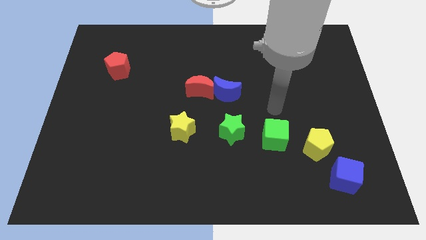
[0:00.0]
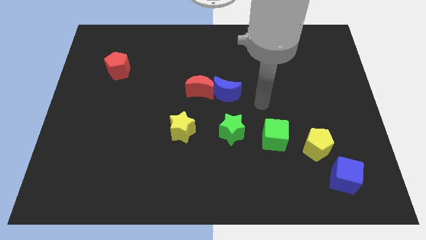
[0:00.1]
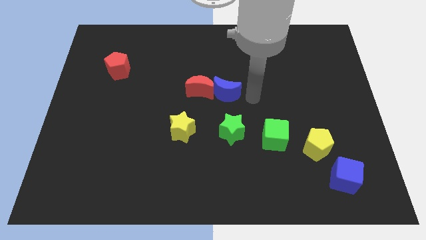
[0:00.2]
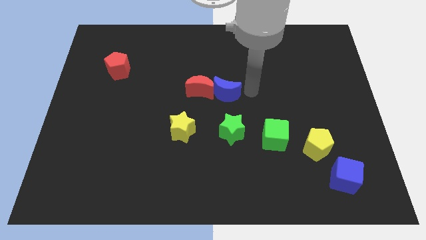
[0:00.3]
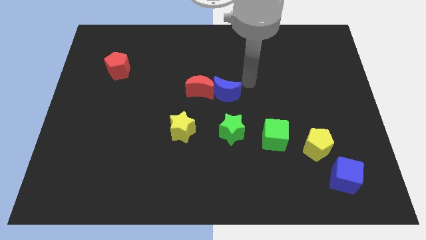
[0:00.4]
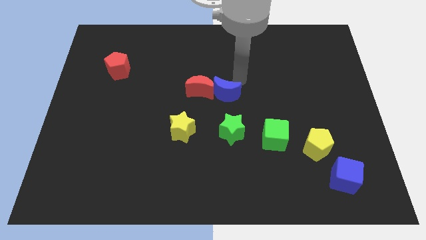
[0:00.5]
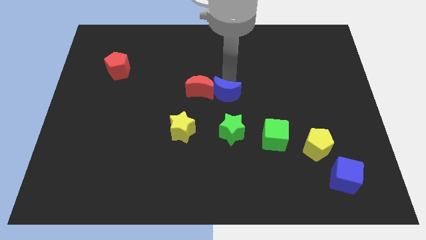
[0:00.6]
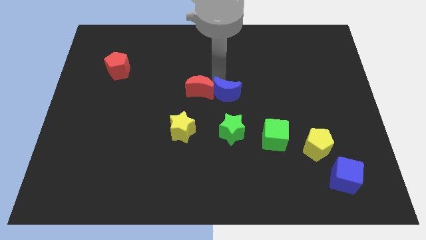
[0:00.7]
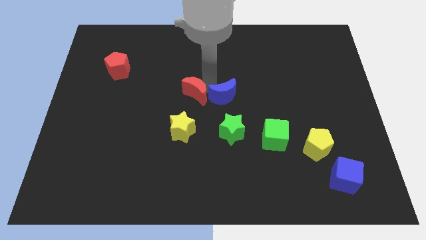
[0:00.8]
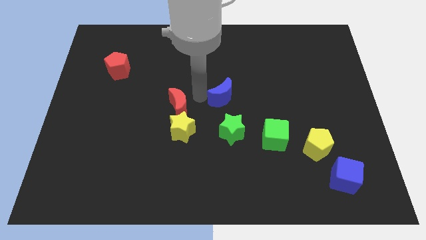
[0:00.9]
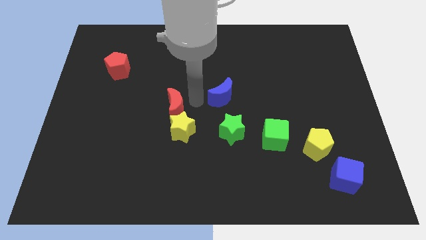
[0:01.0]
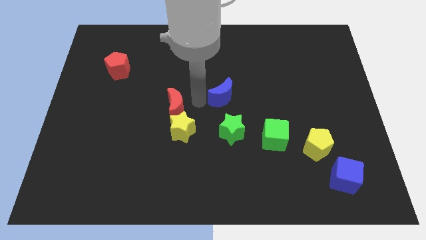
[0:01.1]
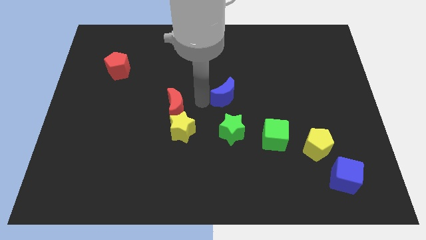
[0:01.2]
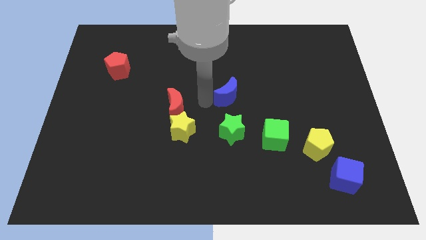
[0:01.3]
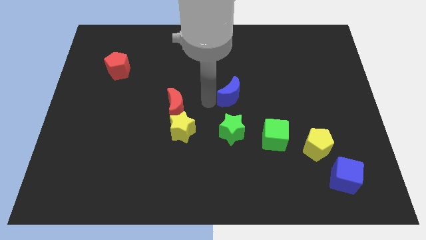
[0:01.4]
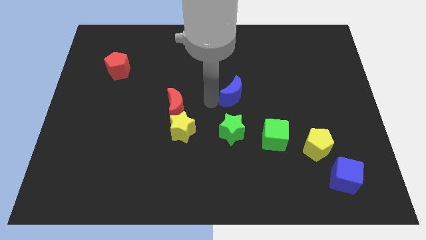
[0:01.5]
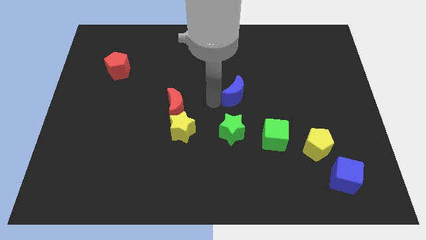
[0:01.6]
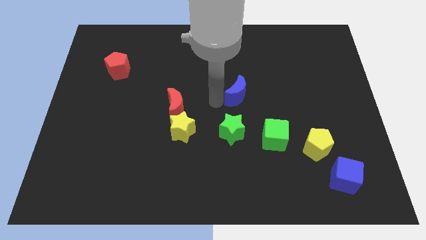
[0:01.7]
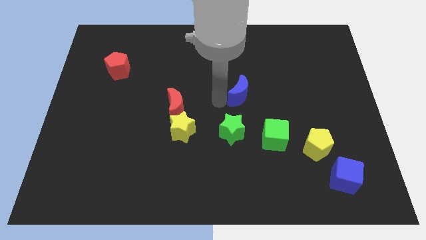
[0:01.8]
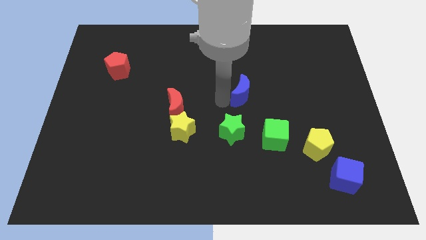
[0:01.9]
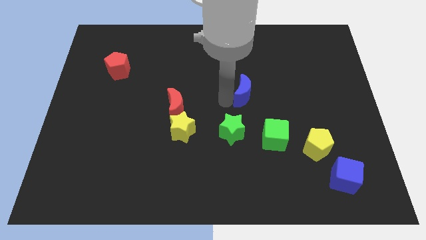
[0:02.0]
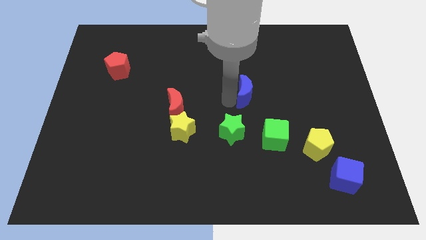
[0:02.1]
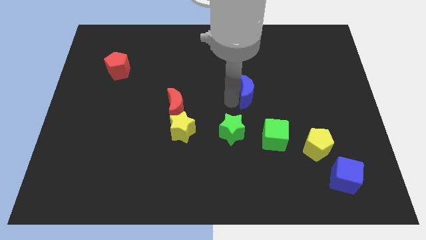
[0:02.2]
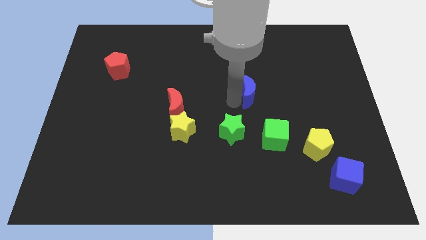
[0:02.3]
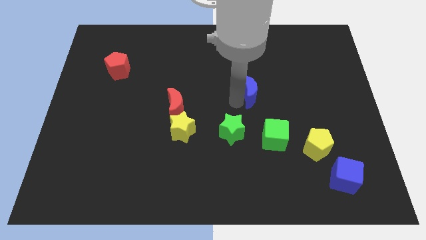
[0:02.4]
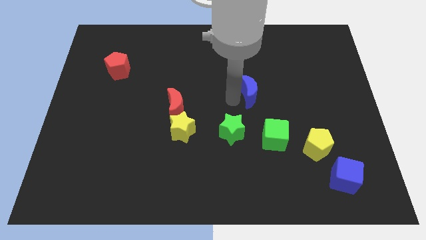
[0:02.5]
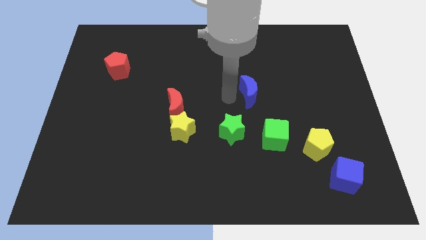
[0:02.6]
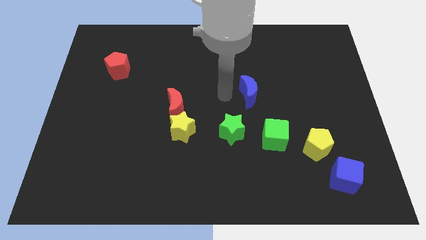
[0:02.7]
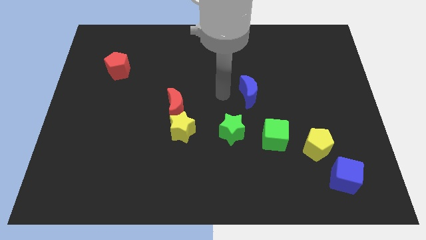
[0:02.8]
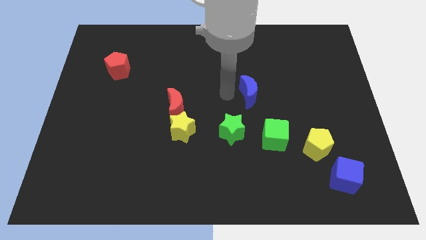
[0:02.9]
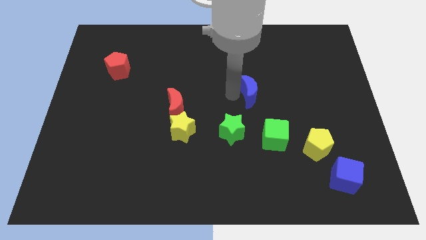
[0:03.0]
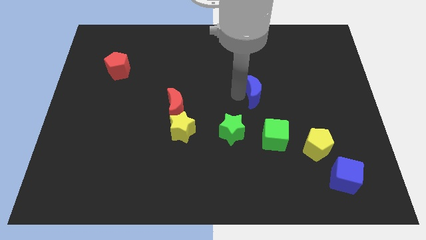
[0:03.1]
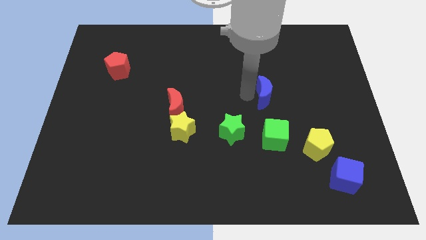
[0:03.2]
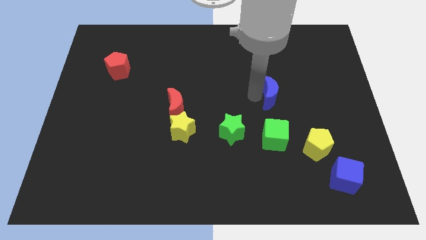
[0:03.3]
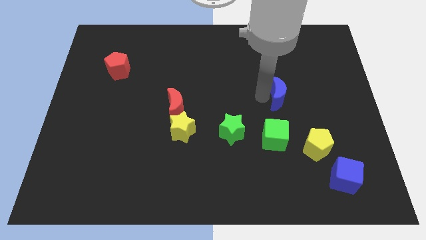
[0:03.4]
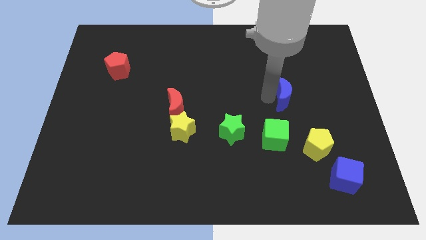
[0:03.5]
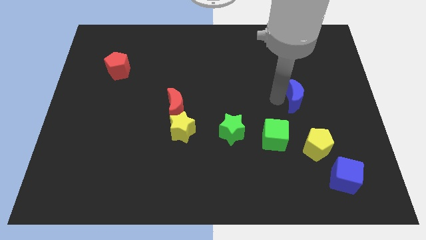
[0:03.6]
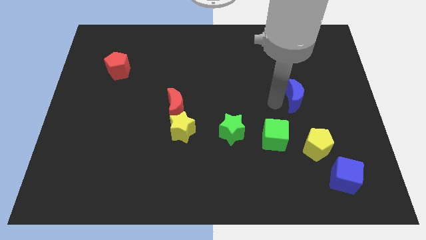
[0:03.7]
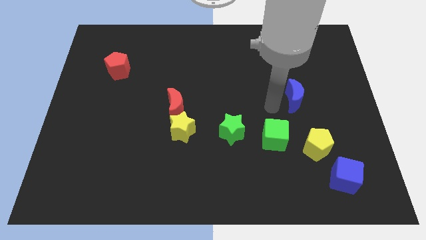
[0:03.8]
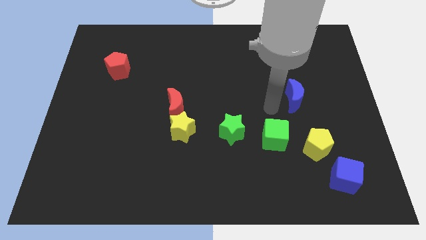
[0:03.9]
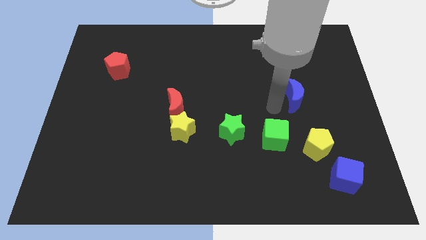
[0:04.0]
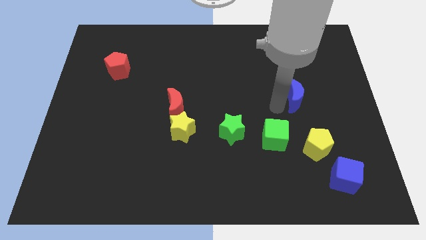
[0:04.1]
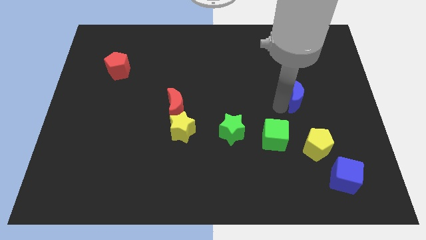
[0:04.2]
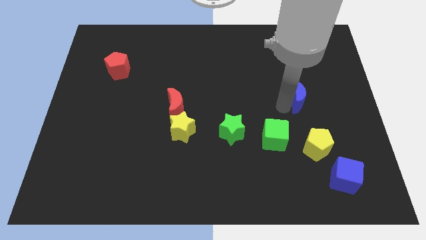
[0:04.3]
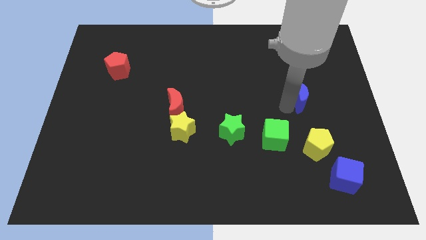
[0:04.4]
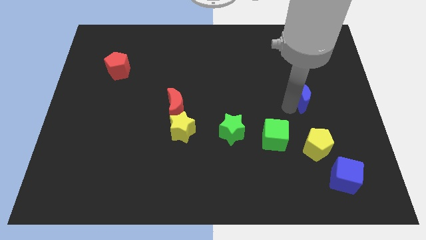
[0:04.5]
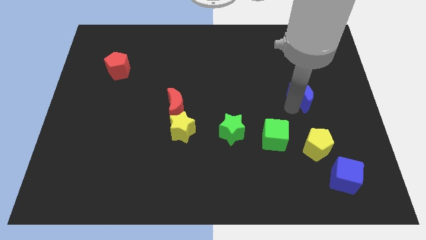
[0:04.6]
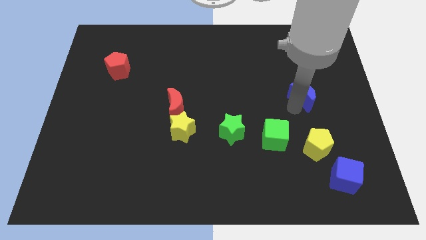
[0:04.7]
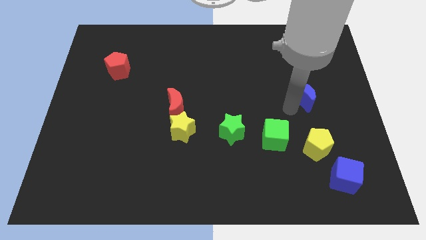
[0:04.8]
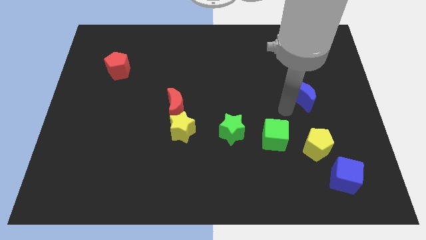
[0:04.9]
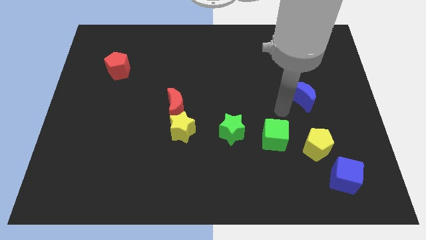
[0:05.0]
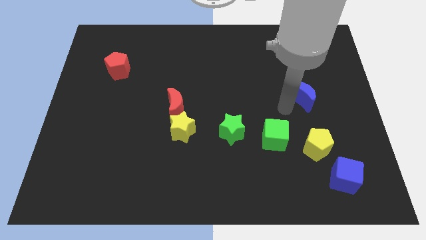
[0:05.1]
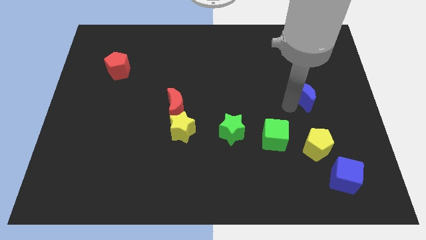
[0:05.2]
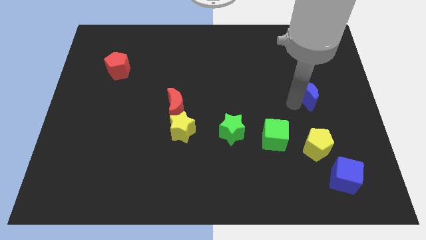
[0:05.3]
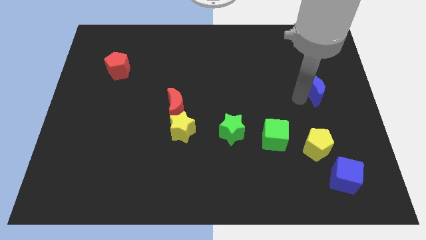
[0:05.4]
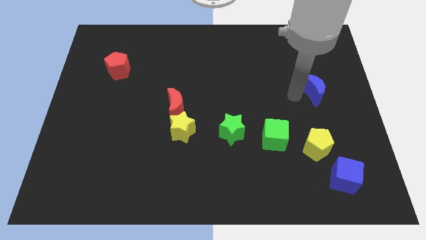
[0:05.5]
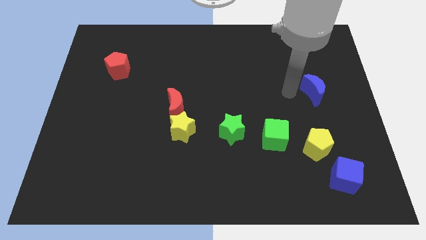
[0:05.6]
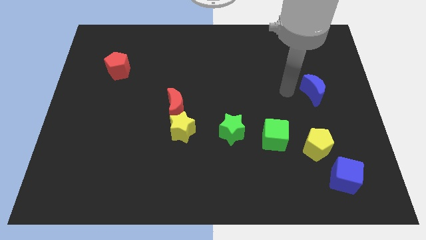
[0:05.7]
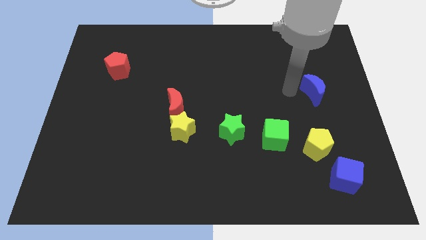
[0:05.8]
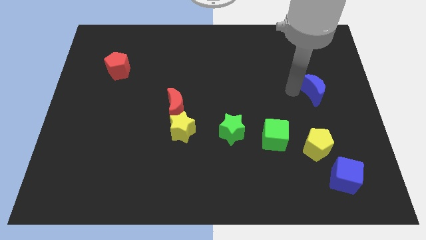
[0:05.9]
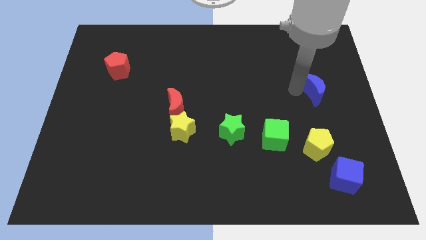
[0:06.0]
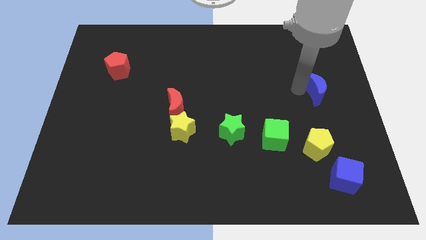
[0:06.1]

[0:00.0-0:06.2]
slide the blue moon to the right side
